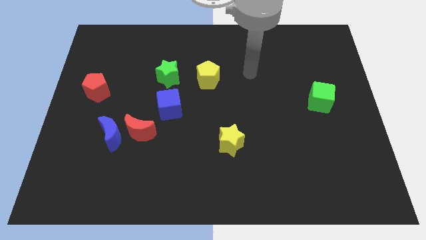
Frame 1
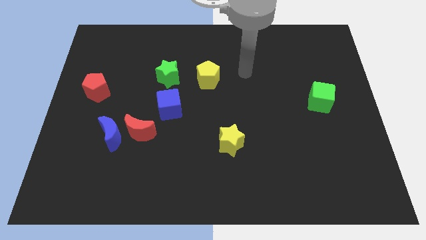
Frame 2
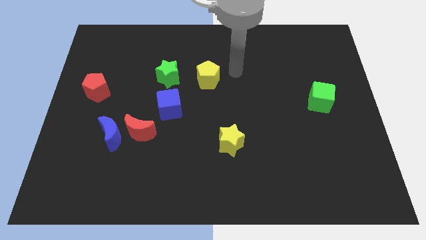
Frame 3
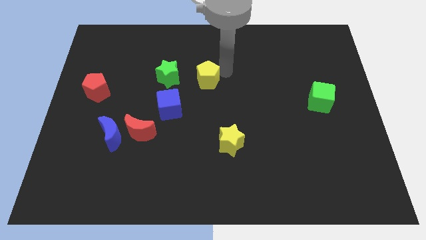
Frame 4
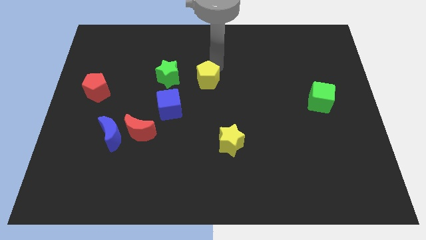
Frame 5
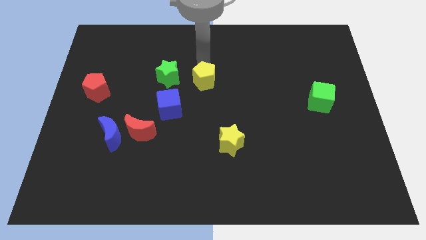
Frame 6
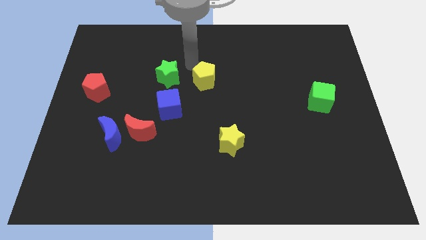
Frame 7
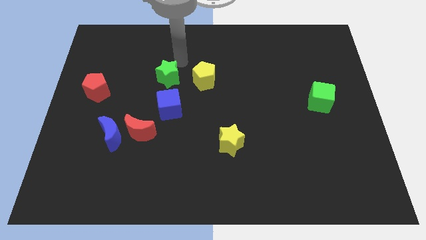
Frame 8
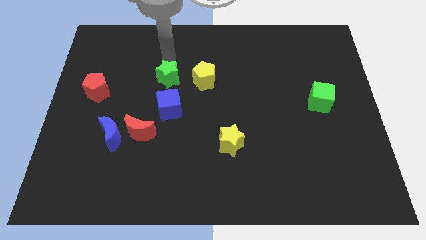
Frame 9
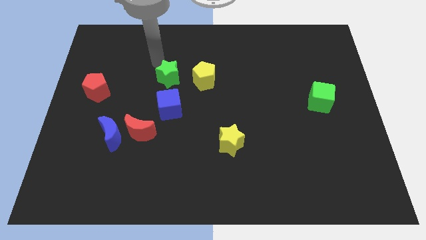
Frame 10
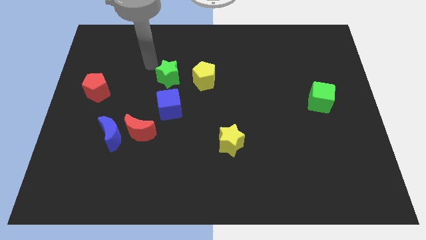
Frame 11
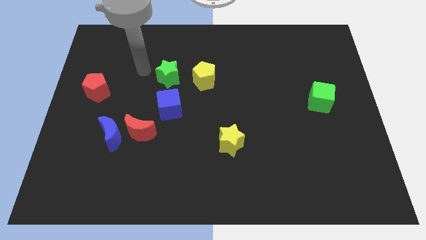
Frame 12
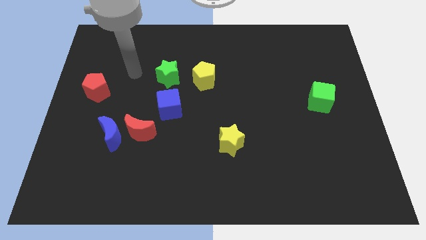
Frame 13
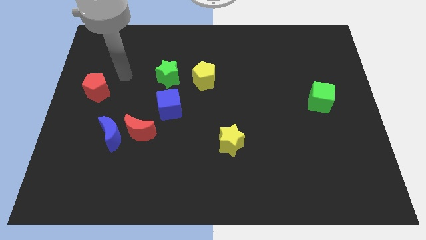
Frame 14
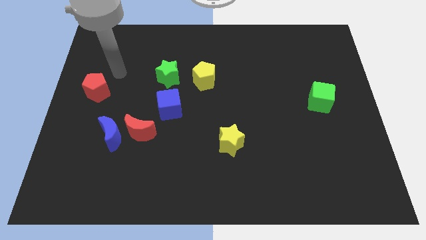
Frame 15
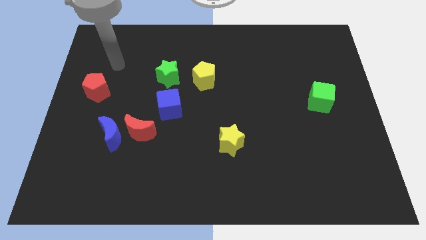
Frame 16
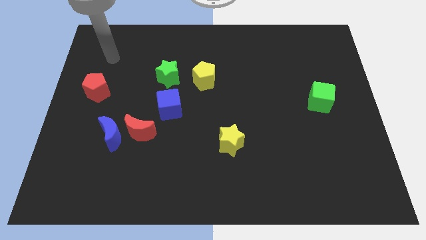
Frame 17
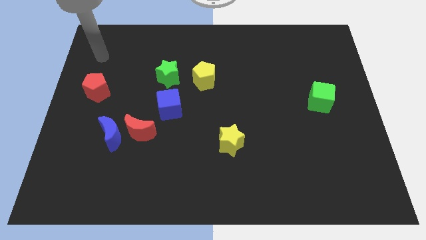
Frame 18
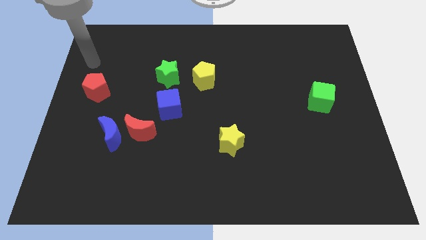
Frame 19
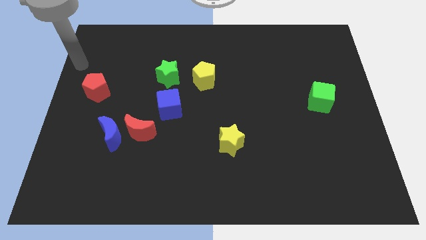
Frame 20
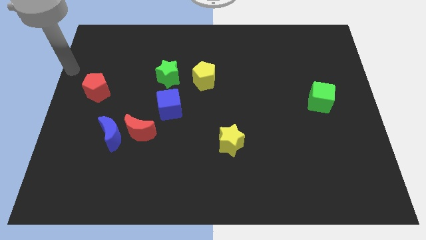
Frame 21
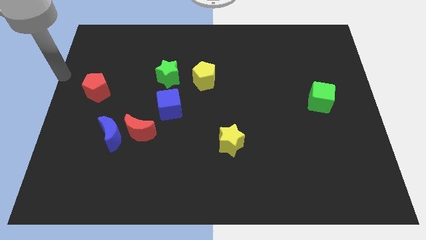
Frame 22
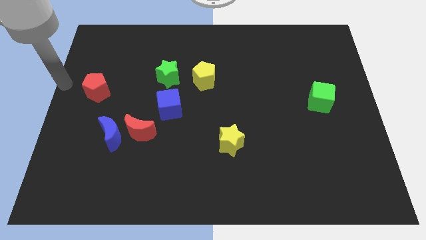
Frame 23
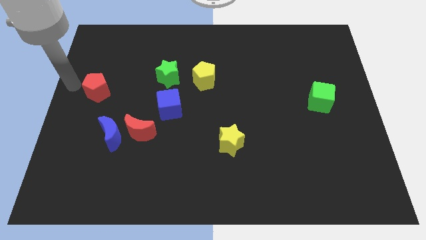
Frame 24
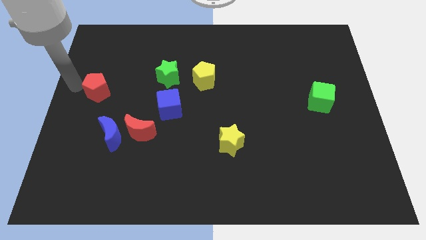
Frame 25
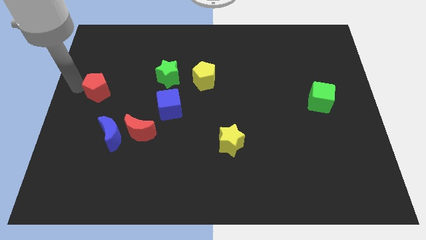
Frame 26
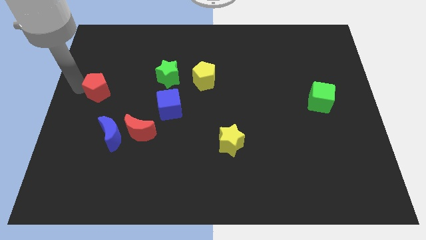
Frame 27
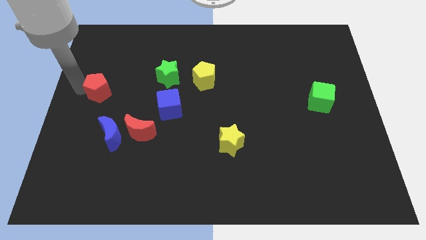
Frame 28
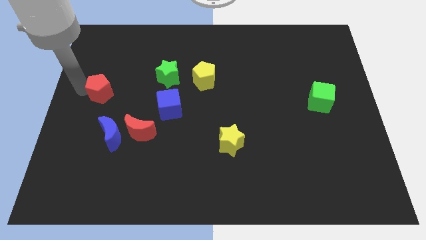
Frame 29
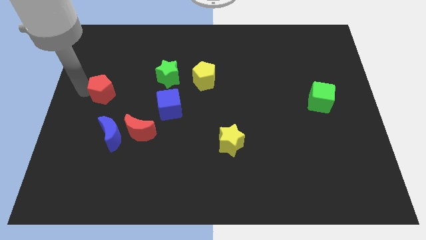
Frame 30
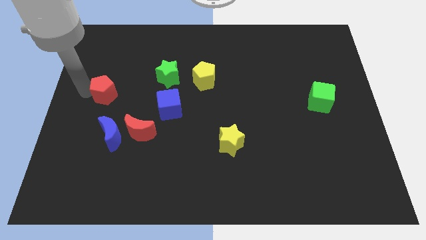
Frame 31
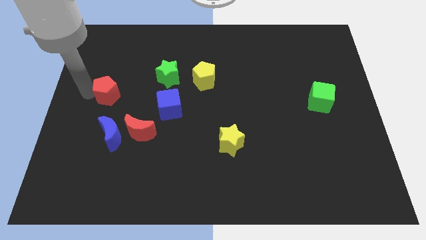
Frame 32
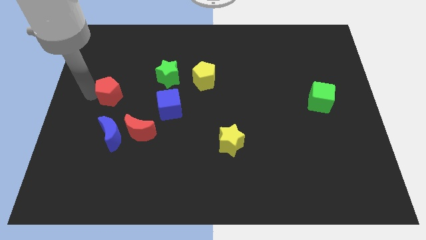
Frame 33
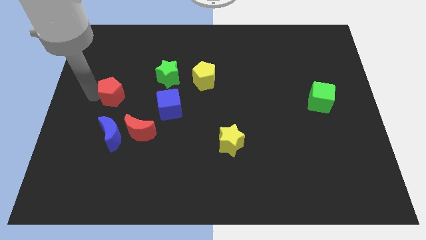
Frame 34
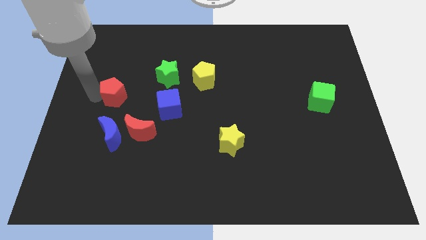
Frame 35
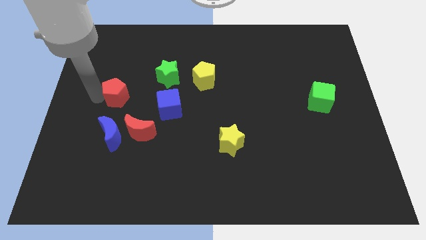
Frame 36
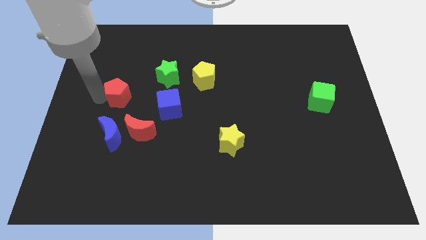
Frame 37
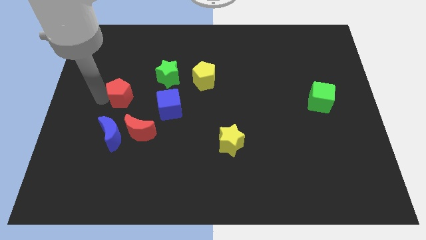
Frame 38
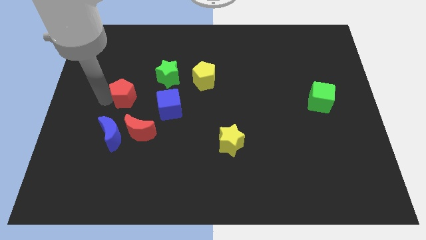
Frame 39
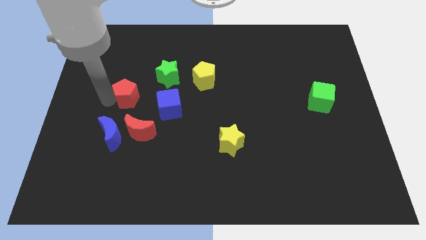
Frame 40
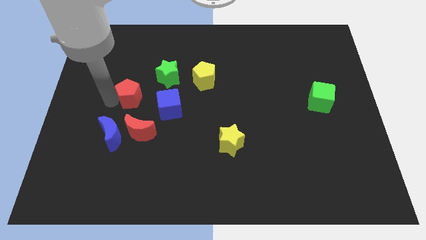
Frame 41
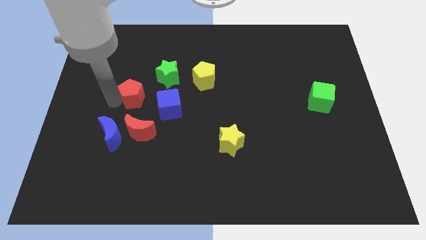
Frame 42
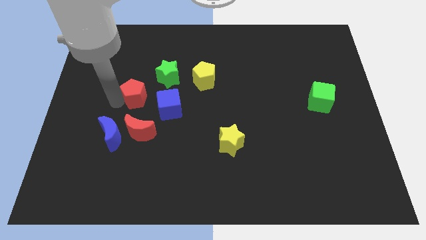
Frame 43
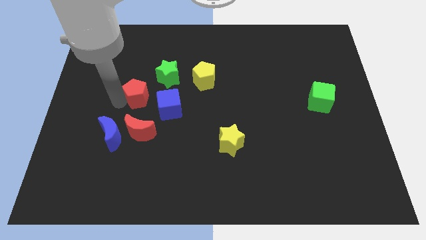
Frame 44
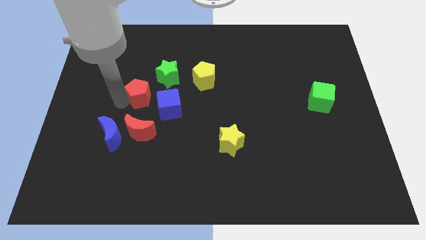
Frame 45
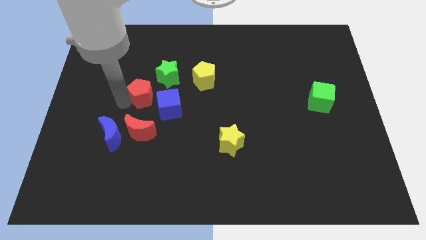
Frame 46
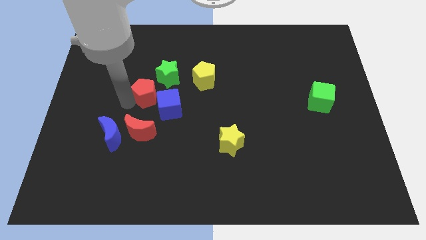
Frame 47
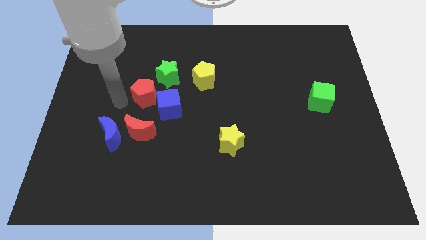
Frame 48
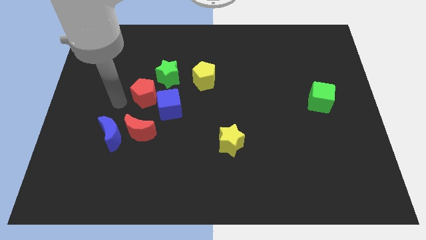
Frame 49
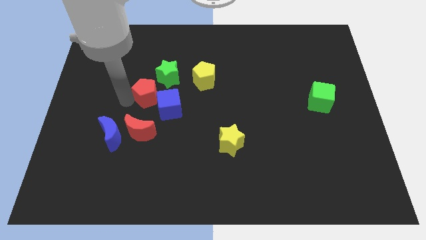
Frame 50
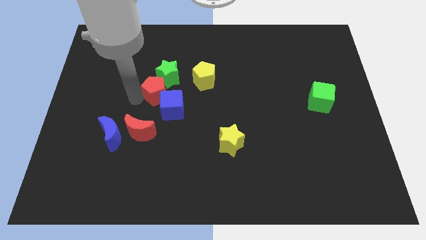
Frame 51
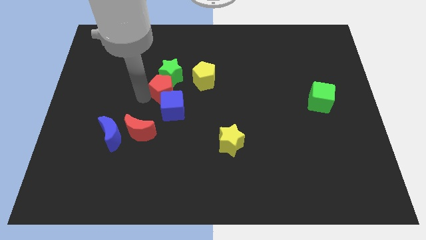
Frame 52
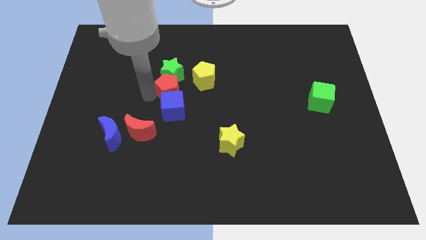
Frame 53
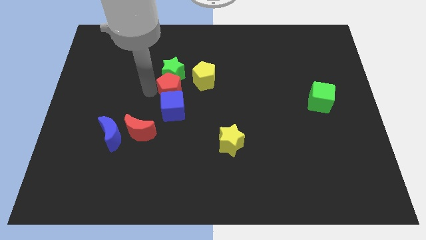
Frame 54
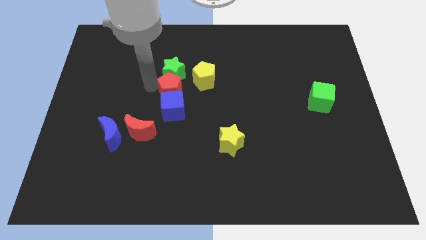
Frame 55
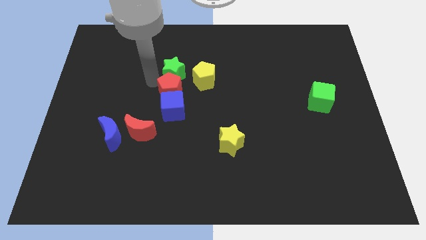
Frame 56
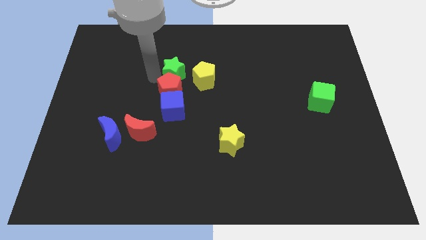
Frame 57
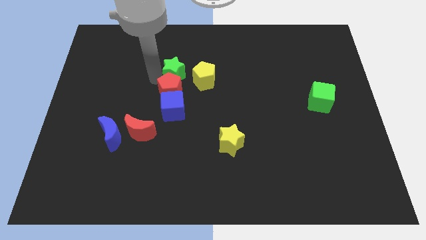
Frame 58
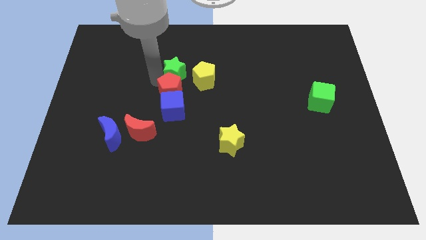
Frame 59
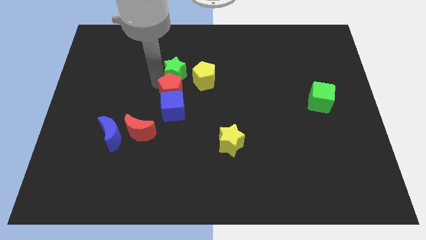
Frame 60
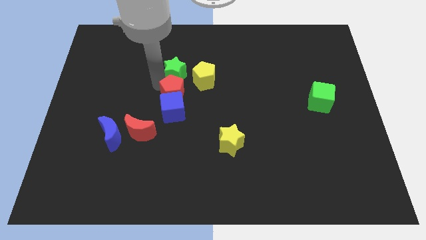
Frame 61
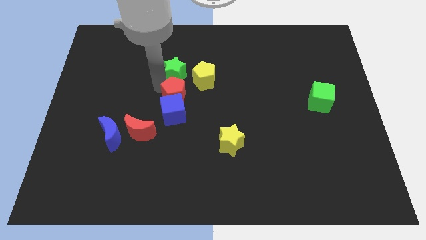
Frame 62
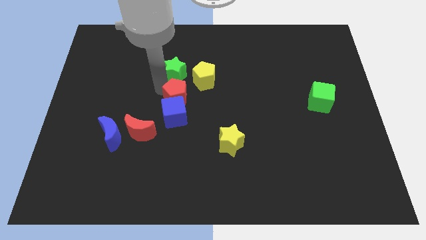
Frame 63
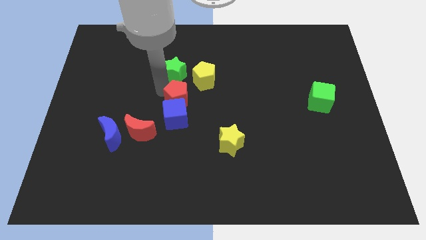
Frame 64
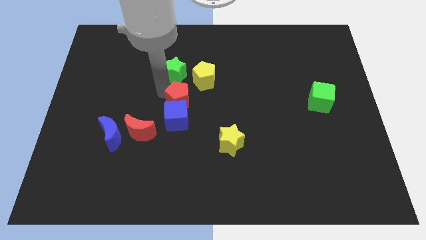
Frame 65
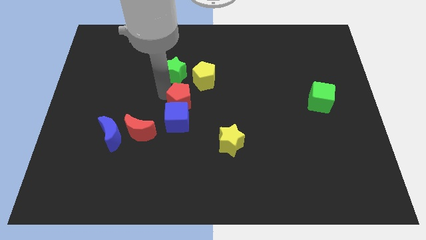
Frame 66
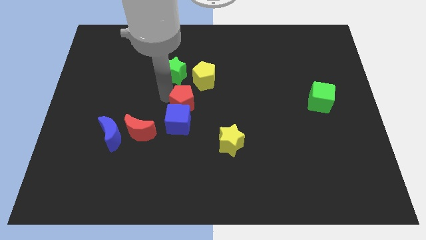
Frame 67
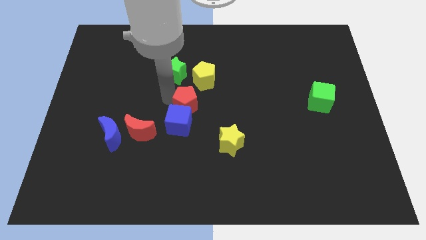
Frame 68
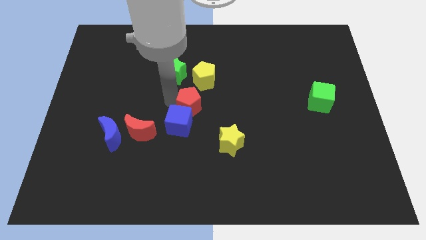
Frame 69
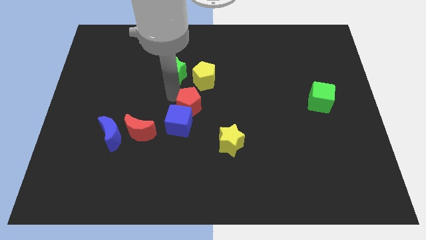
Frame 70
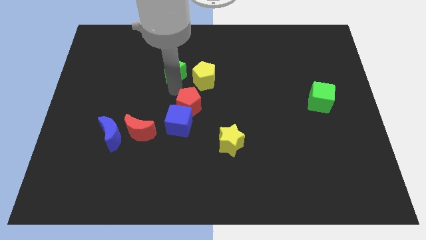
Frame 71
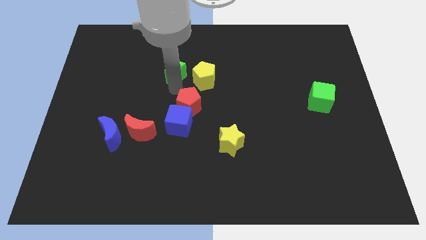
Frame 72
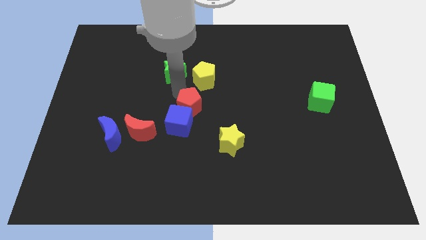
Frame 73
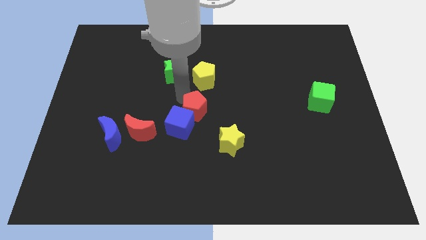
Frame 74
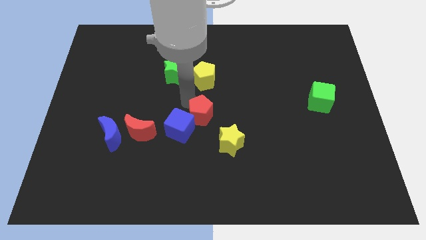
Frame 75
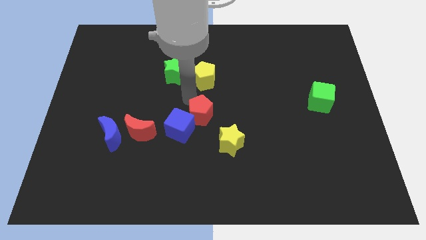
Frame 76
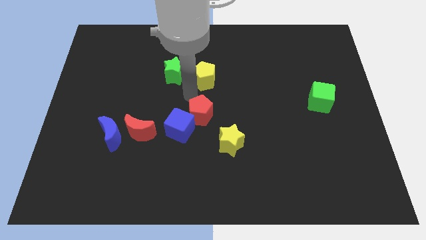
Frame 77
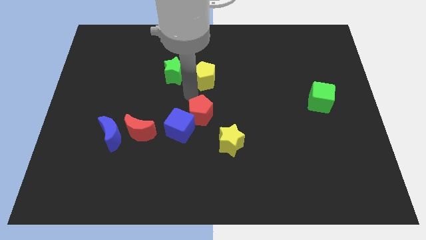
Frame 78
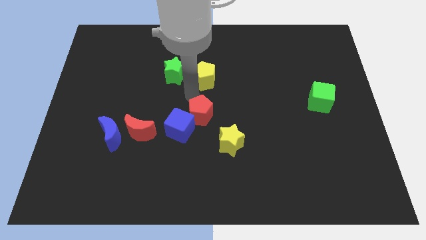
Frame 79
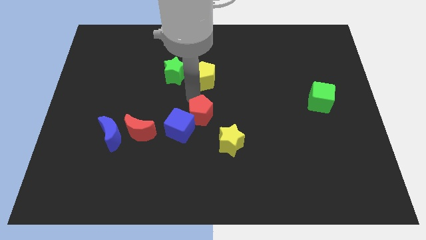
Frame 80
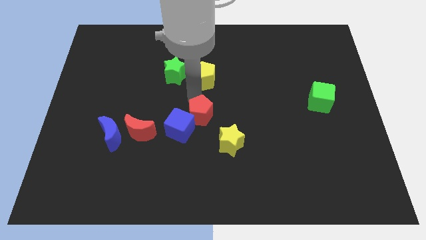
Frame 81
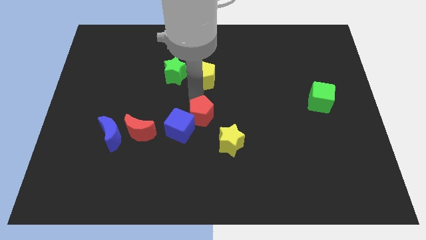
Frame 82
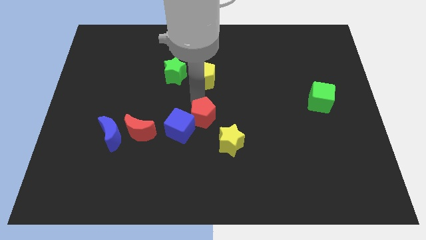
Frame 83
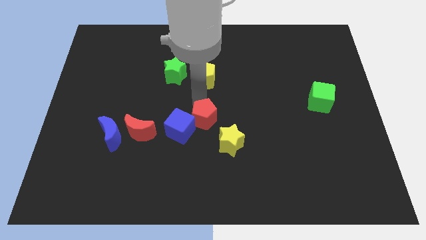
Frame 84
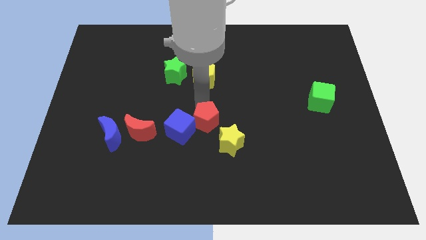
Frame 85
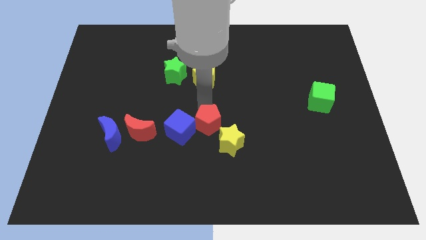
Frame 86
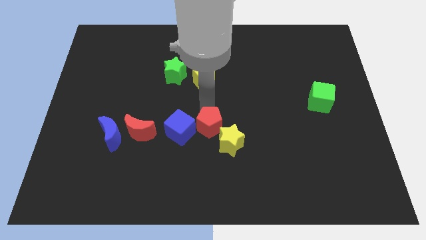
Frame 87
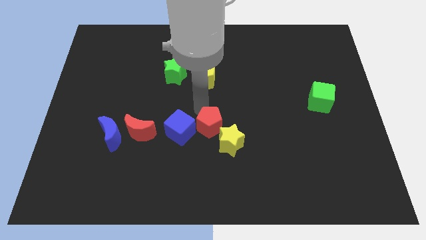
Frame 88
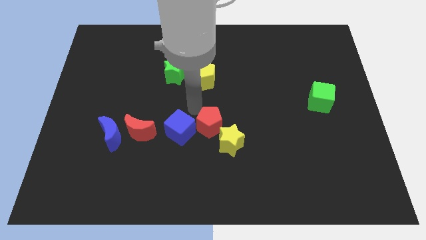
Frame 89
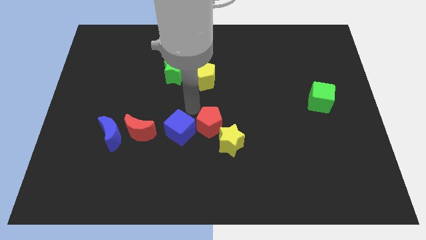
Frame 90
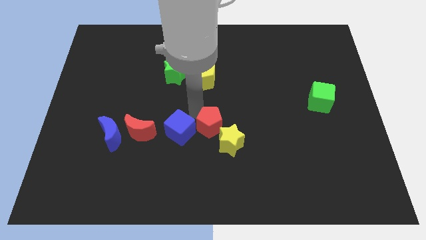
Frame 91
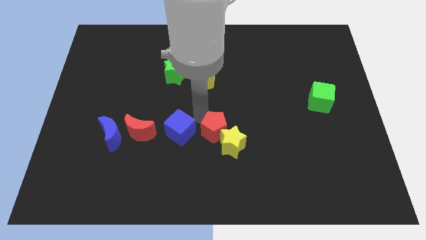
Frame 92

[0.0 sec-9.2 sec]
slide the red pentagon close to the yellow star
